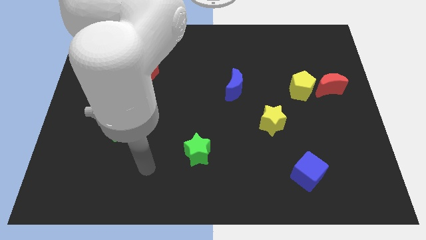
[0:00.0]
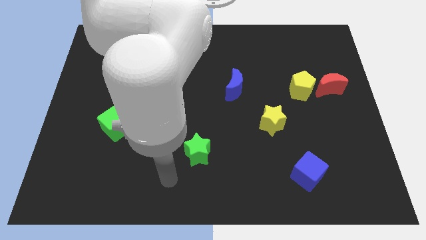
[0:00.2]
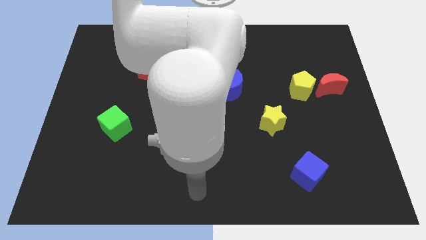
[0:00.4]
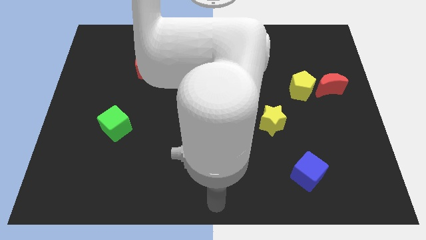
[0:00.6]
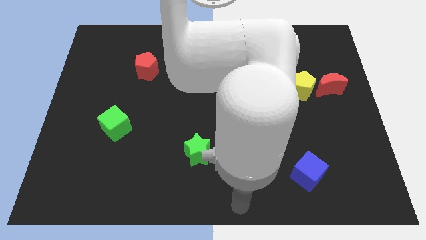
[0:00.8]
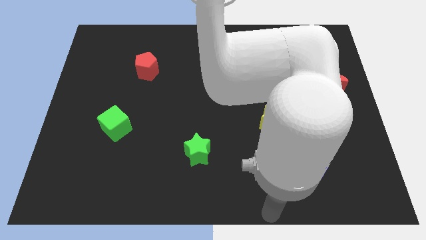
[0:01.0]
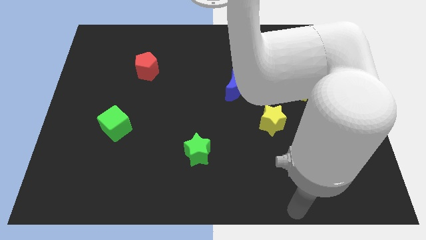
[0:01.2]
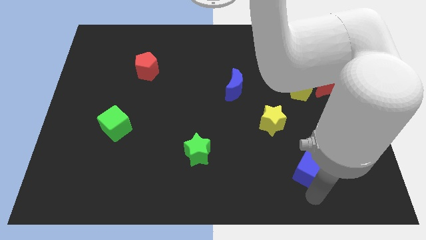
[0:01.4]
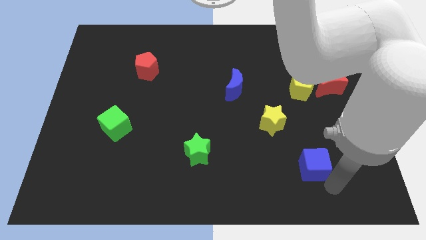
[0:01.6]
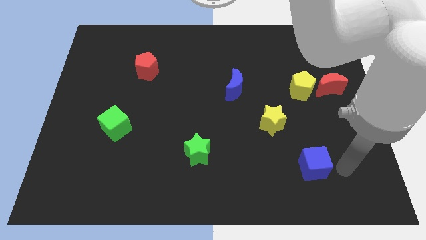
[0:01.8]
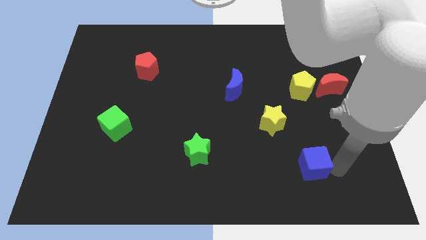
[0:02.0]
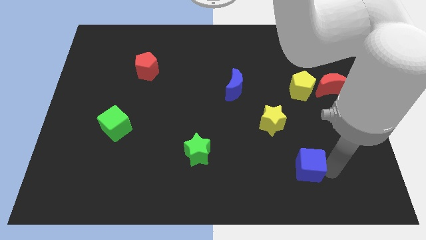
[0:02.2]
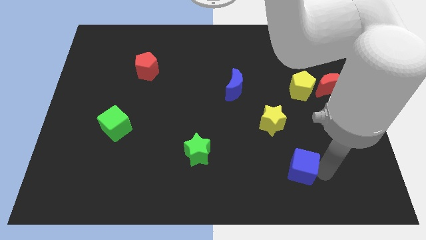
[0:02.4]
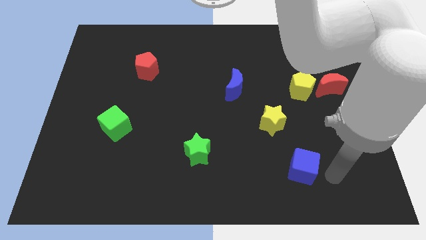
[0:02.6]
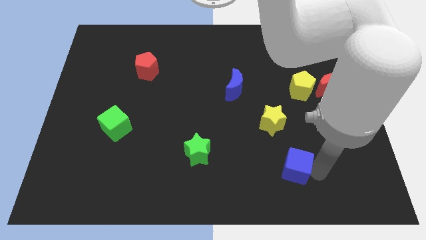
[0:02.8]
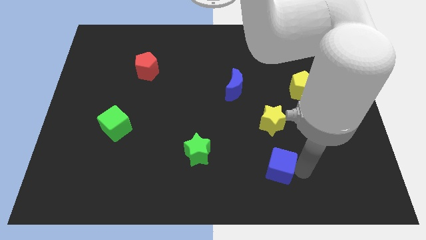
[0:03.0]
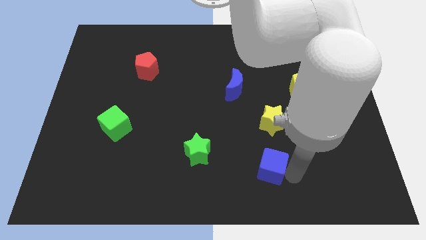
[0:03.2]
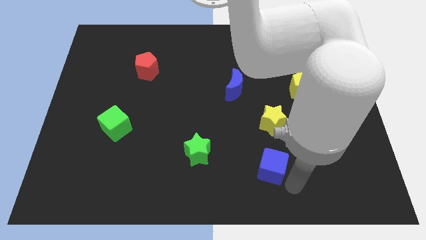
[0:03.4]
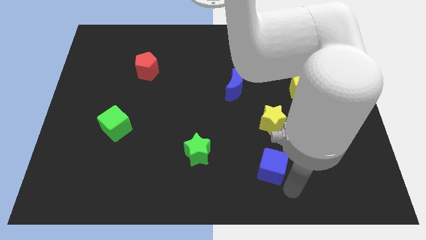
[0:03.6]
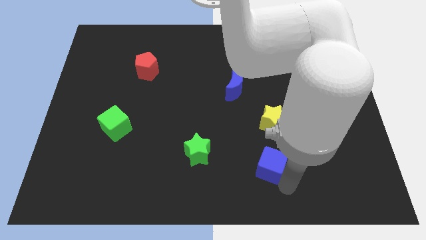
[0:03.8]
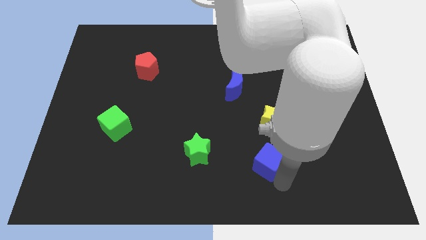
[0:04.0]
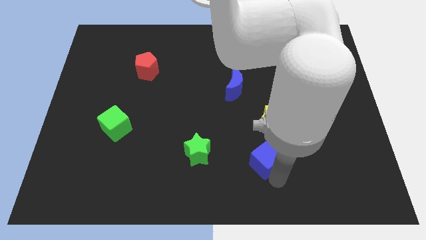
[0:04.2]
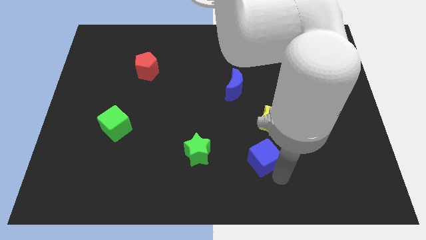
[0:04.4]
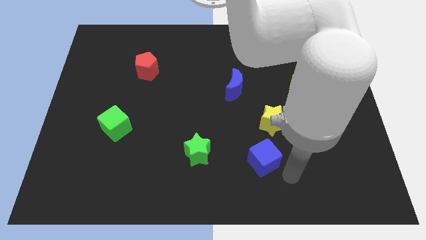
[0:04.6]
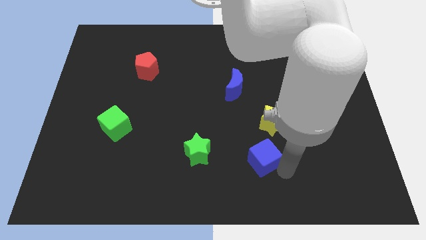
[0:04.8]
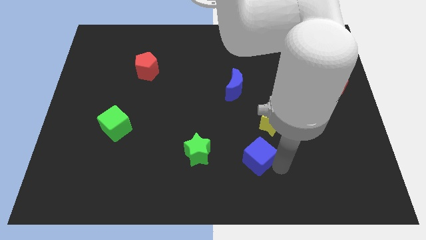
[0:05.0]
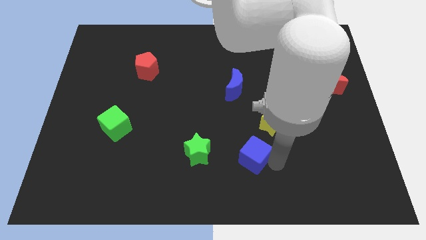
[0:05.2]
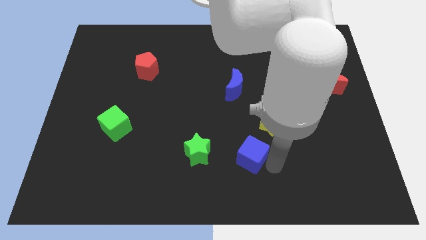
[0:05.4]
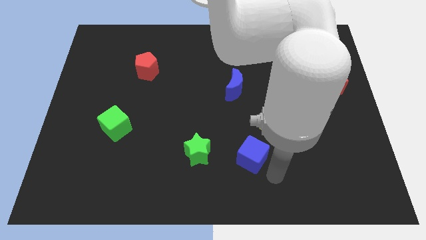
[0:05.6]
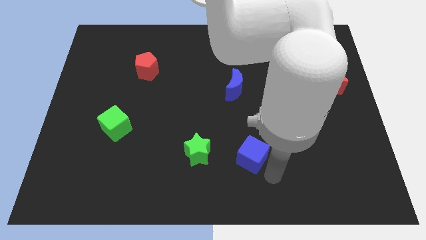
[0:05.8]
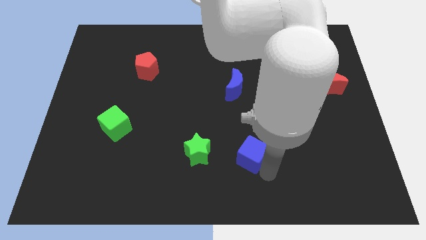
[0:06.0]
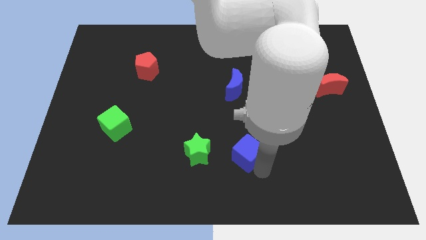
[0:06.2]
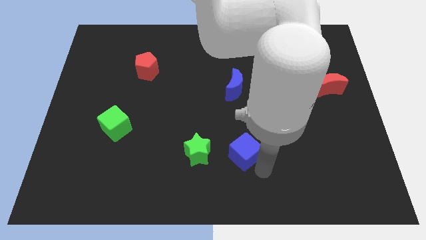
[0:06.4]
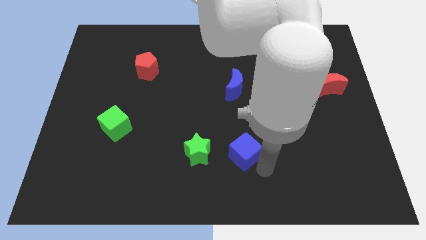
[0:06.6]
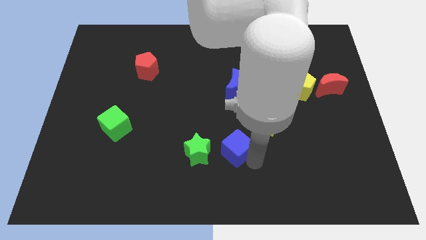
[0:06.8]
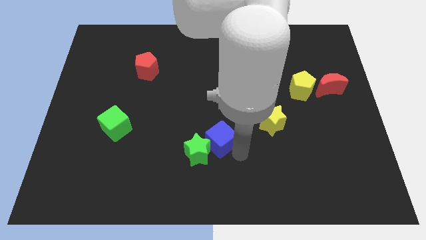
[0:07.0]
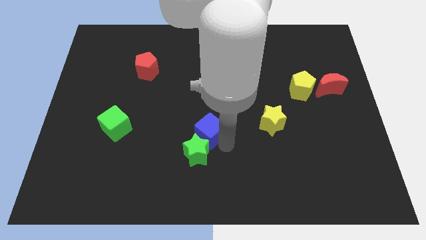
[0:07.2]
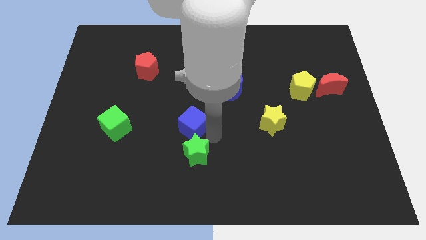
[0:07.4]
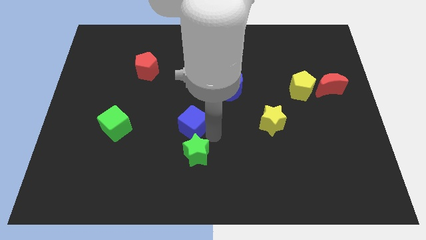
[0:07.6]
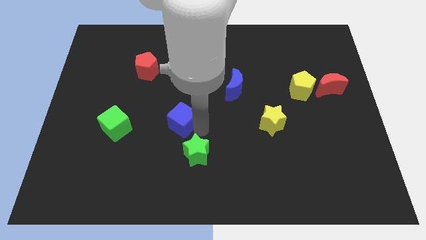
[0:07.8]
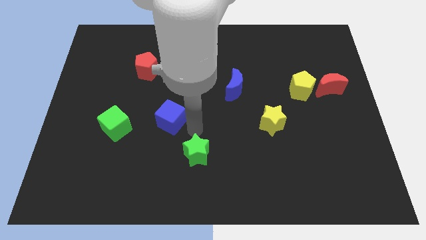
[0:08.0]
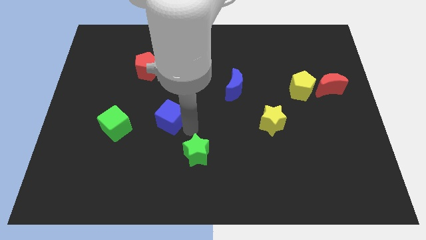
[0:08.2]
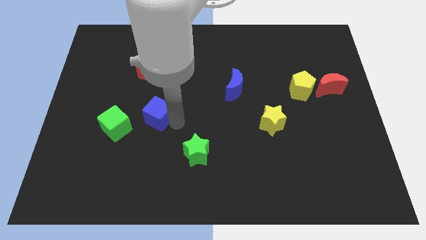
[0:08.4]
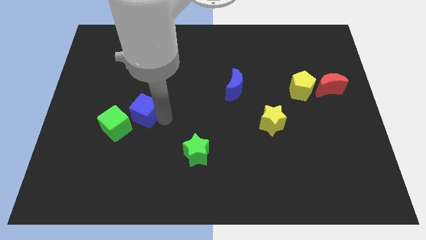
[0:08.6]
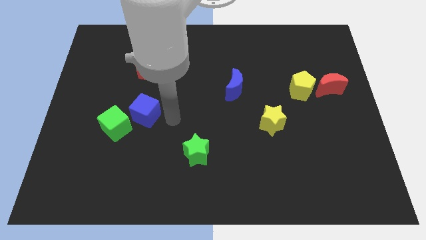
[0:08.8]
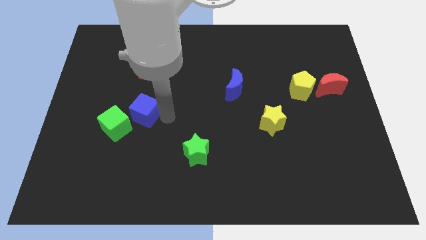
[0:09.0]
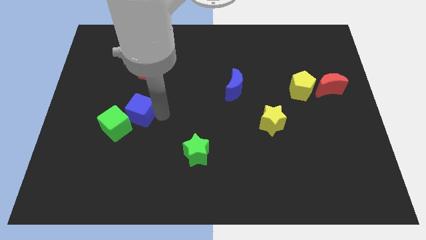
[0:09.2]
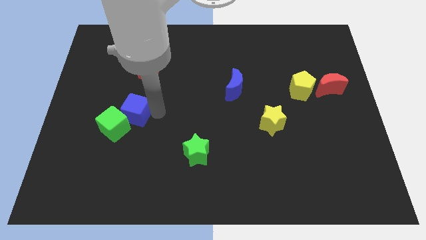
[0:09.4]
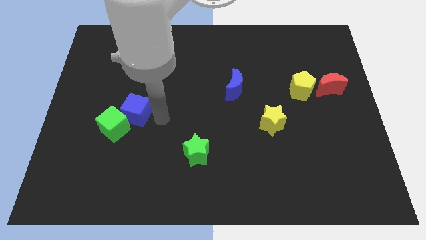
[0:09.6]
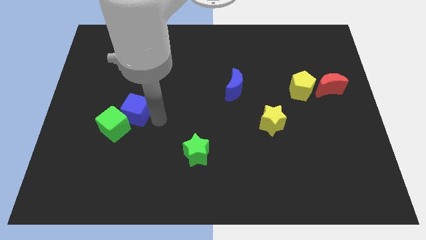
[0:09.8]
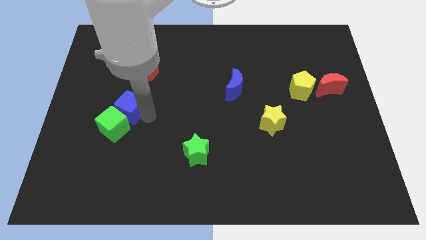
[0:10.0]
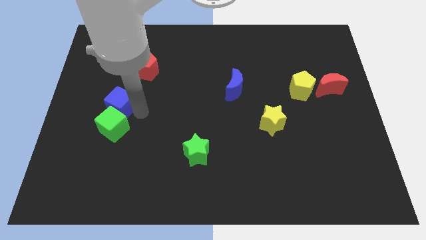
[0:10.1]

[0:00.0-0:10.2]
put the blue cube diagonally up and to the left of the green cube

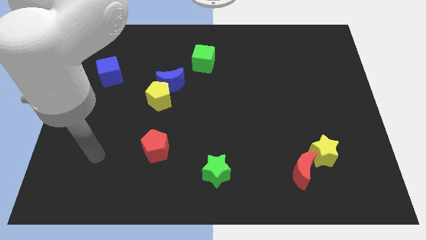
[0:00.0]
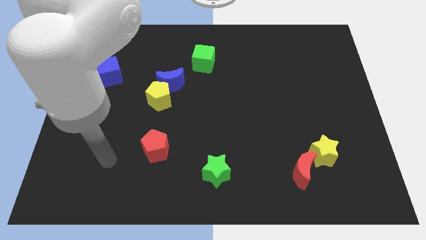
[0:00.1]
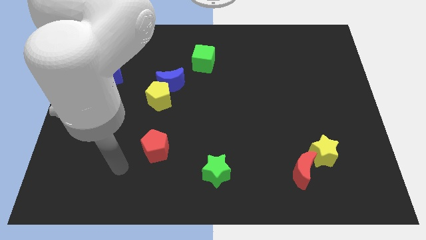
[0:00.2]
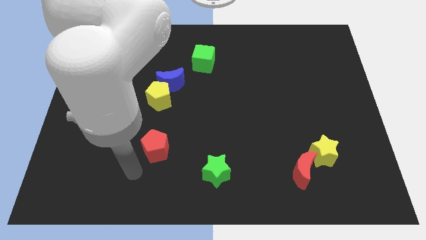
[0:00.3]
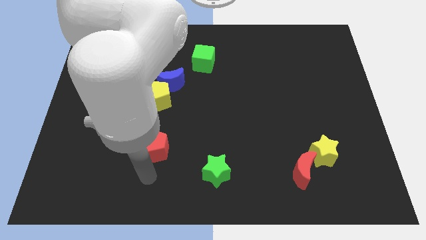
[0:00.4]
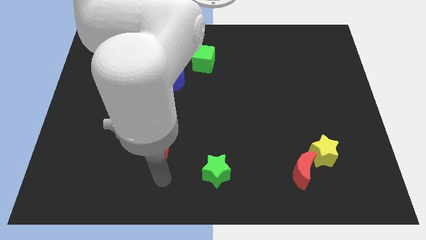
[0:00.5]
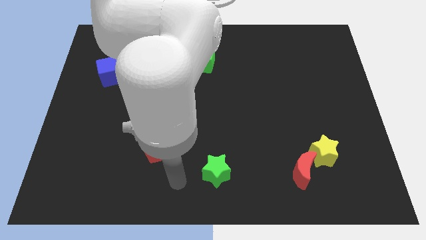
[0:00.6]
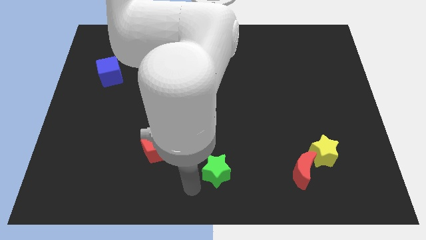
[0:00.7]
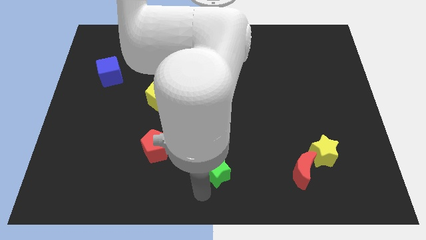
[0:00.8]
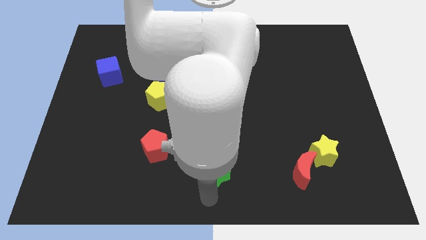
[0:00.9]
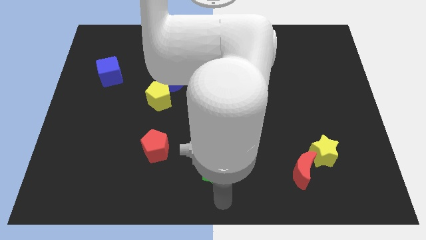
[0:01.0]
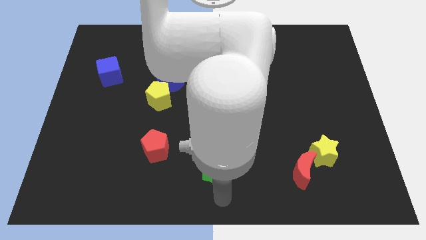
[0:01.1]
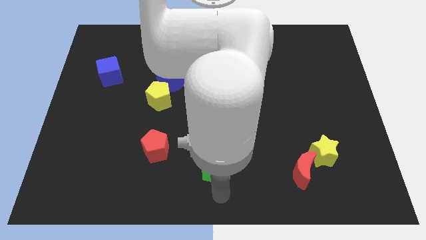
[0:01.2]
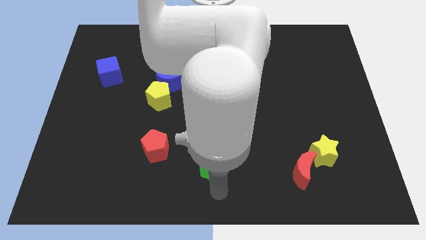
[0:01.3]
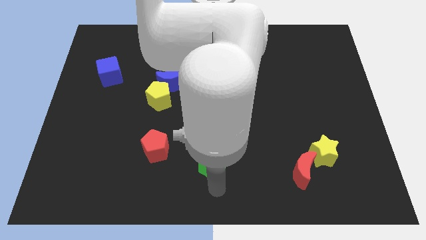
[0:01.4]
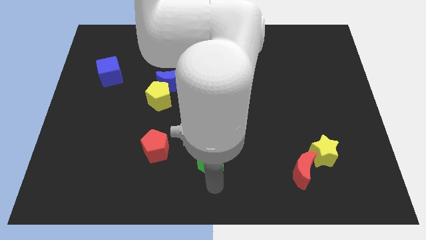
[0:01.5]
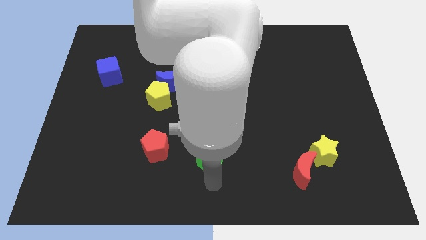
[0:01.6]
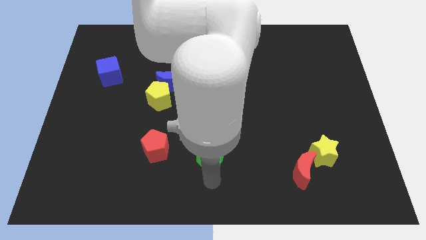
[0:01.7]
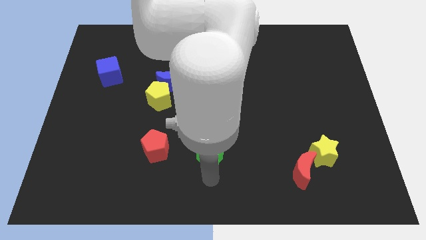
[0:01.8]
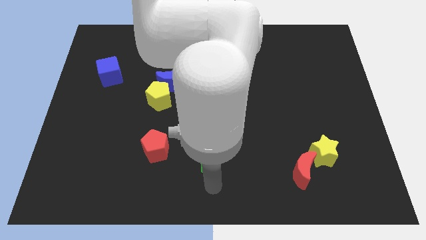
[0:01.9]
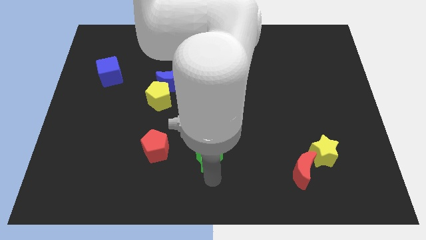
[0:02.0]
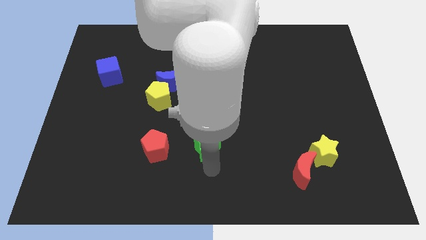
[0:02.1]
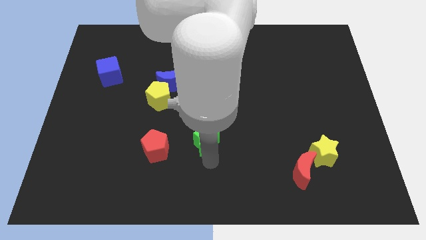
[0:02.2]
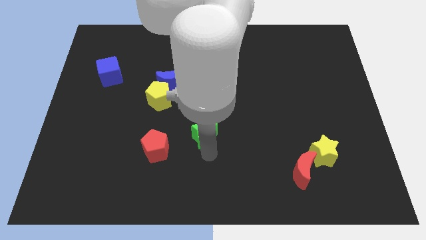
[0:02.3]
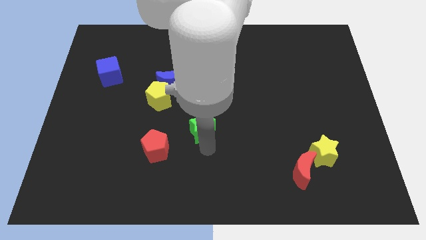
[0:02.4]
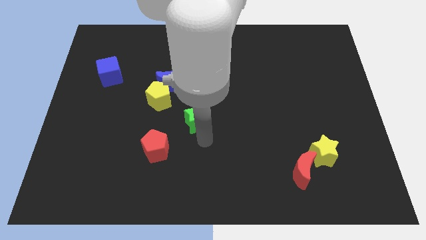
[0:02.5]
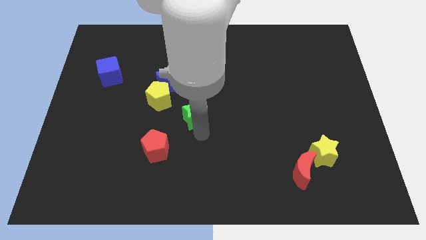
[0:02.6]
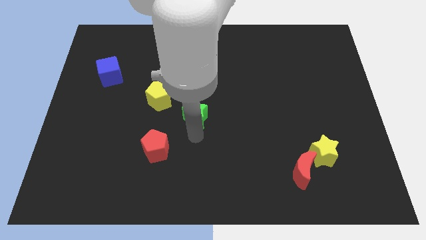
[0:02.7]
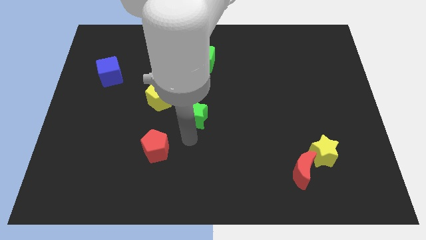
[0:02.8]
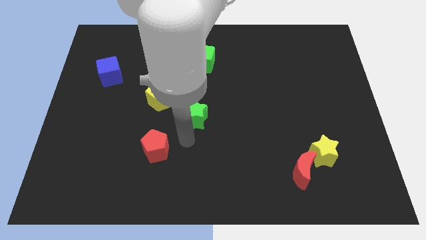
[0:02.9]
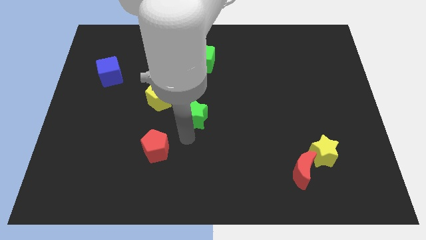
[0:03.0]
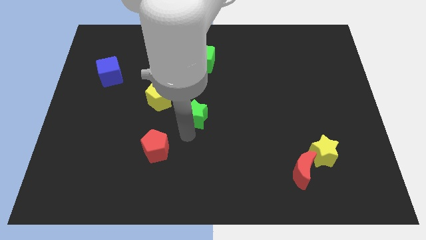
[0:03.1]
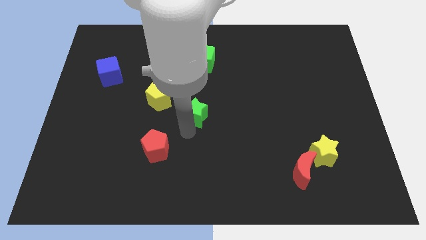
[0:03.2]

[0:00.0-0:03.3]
move the green star right of the yellow pentagon
